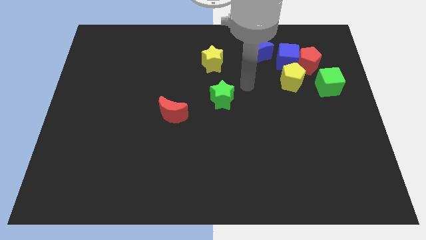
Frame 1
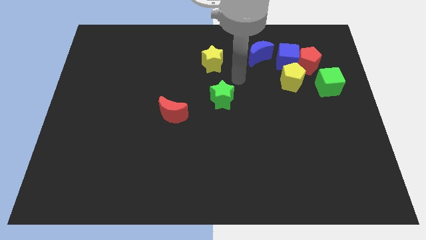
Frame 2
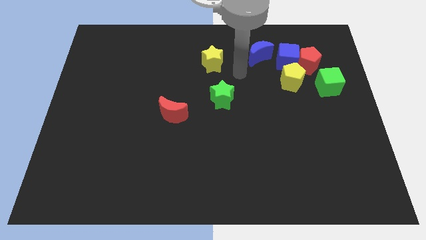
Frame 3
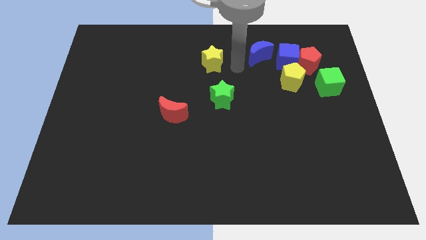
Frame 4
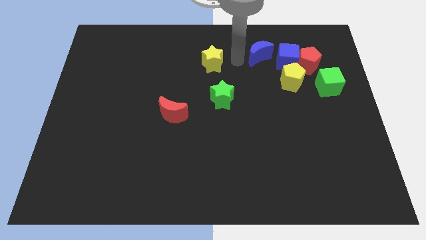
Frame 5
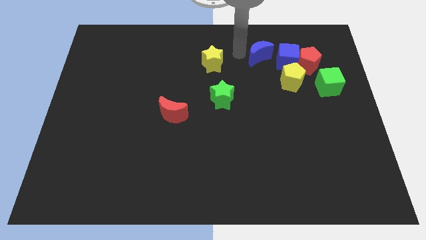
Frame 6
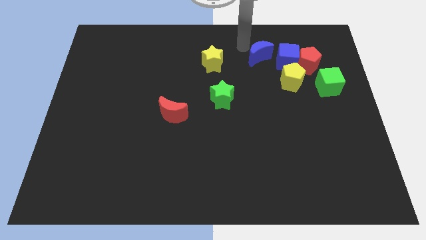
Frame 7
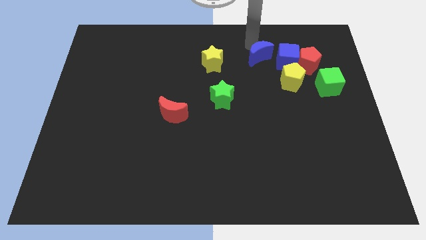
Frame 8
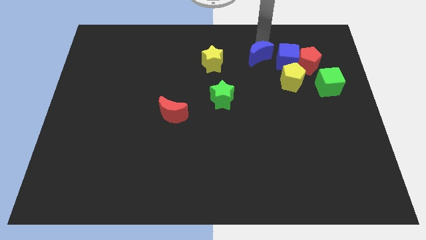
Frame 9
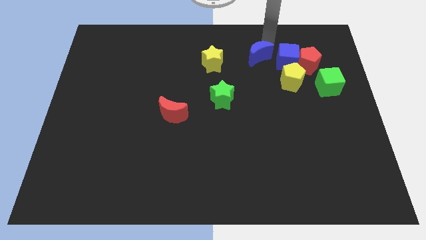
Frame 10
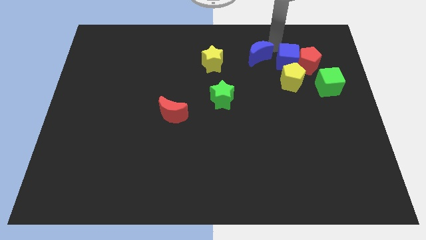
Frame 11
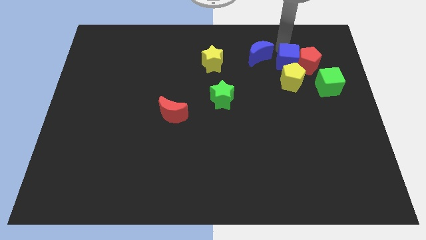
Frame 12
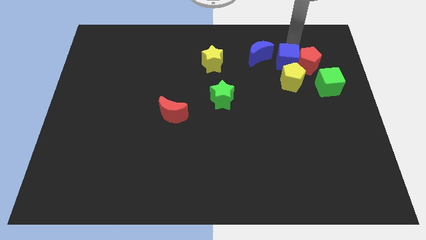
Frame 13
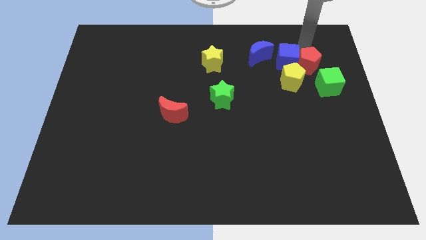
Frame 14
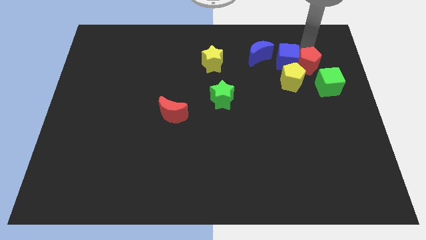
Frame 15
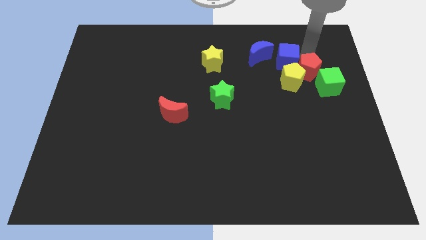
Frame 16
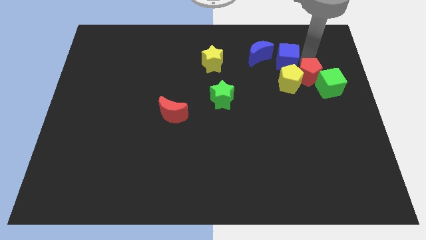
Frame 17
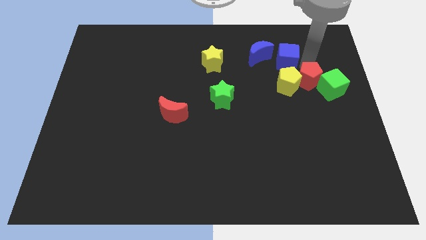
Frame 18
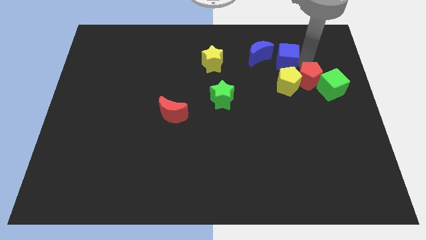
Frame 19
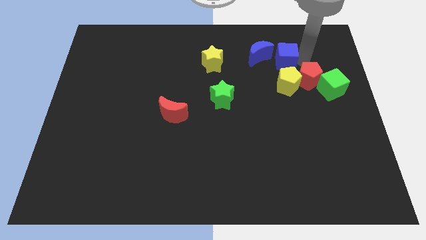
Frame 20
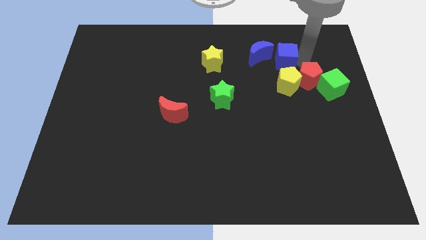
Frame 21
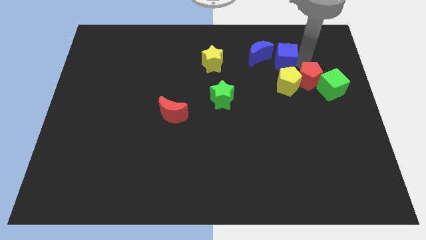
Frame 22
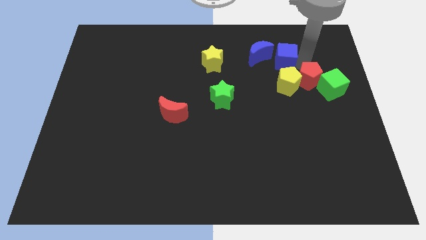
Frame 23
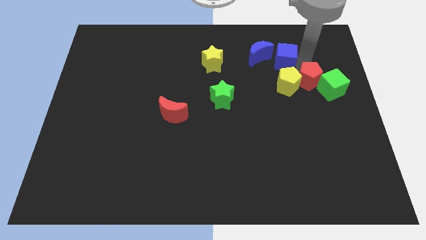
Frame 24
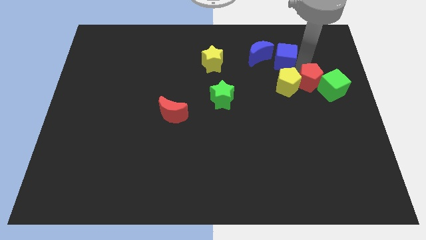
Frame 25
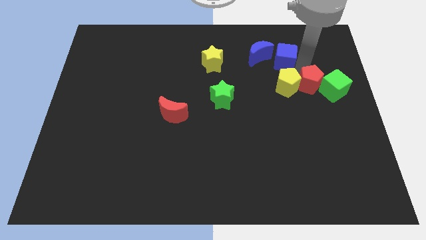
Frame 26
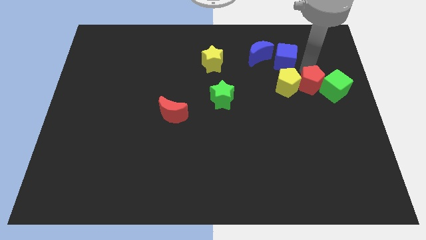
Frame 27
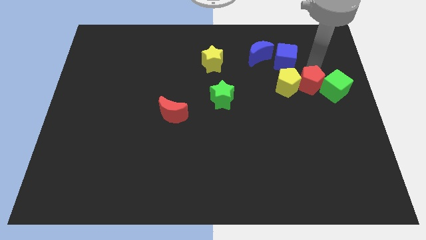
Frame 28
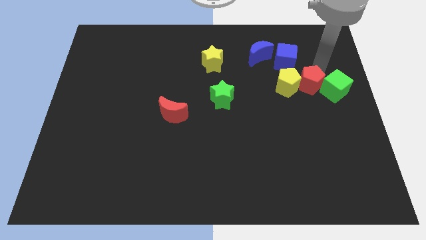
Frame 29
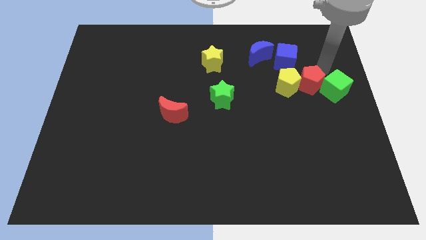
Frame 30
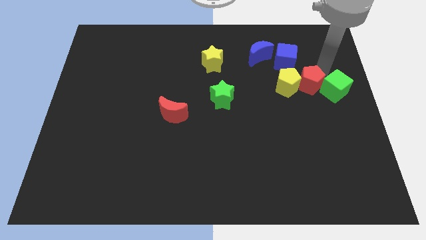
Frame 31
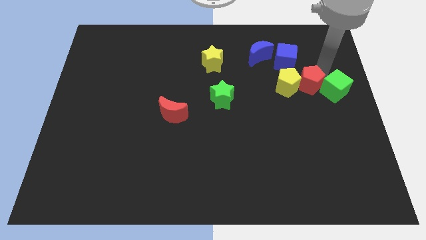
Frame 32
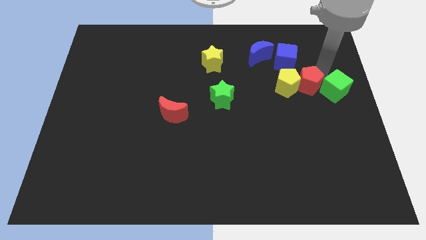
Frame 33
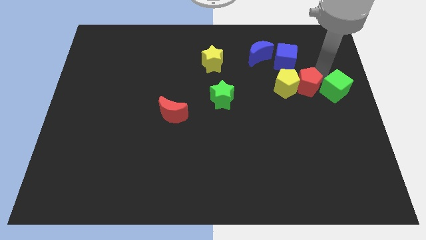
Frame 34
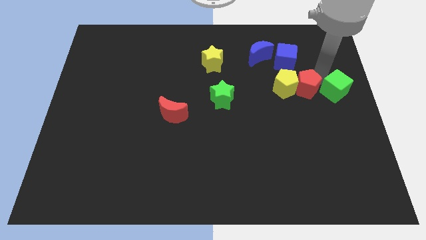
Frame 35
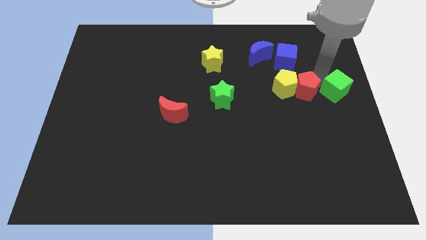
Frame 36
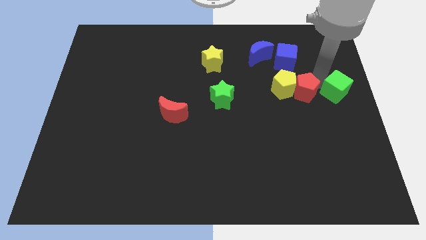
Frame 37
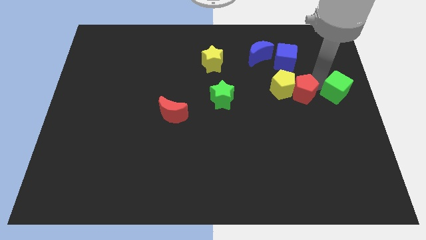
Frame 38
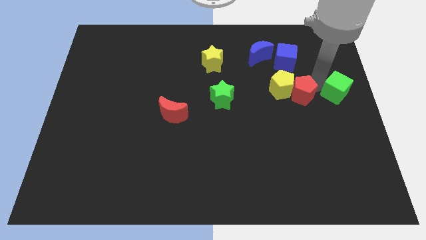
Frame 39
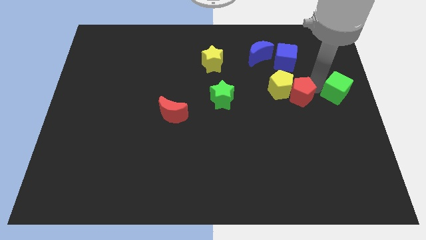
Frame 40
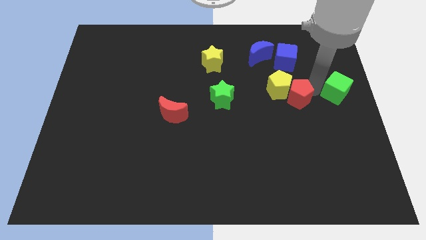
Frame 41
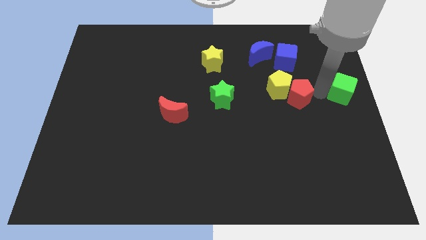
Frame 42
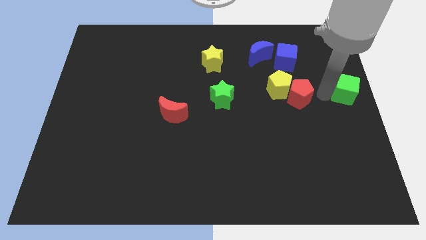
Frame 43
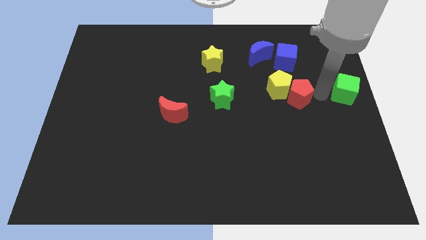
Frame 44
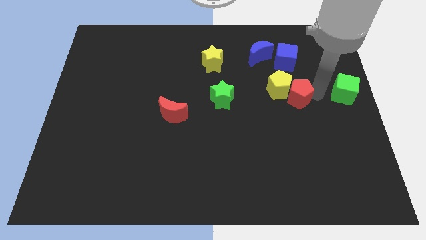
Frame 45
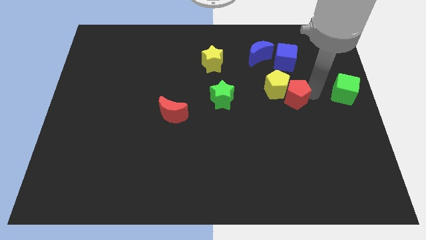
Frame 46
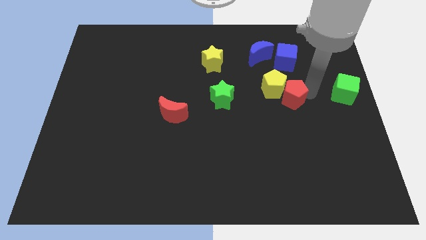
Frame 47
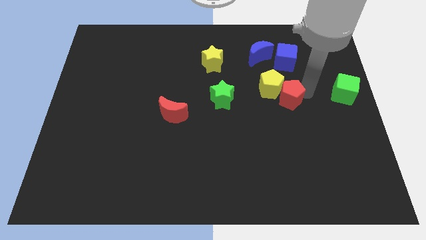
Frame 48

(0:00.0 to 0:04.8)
slide the red pentagon to the right of the green star

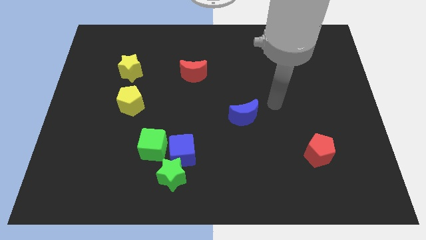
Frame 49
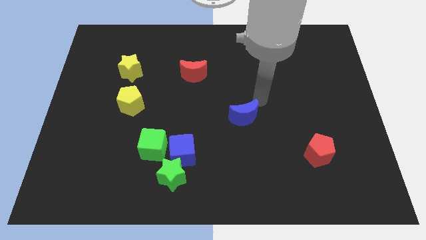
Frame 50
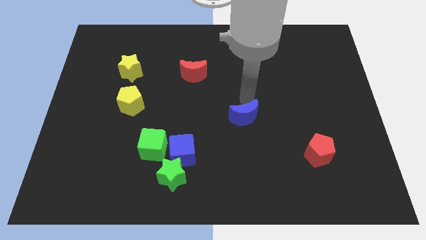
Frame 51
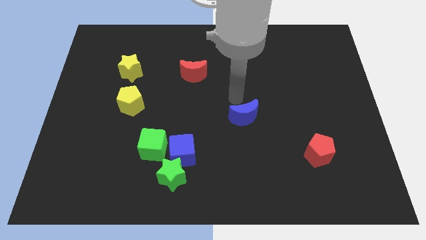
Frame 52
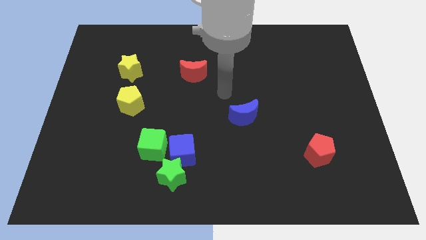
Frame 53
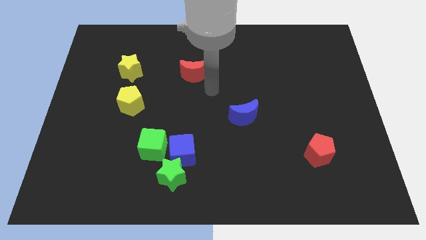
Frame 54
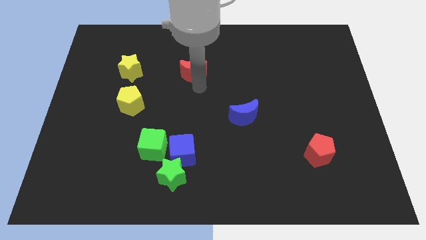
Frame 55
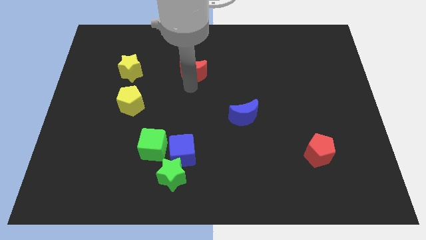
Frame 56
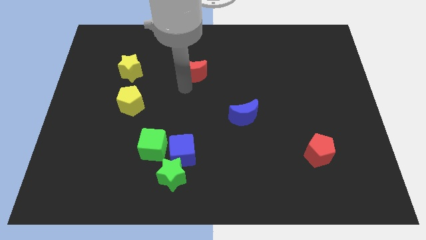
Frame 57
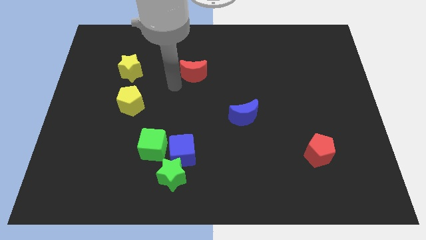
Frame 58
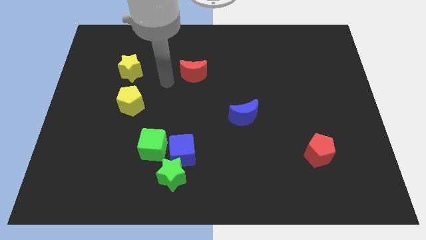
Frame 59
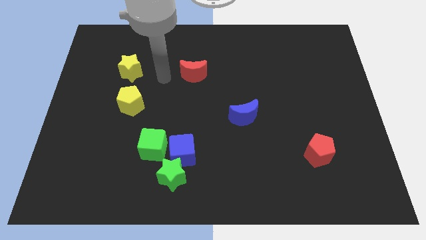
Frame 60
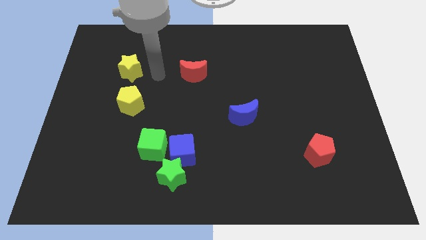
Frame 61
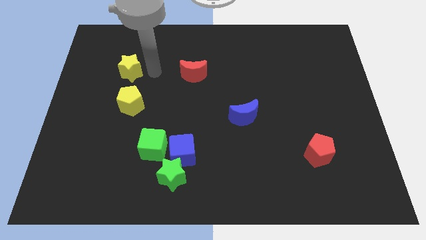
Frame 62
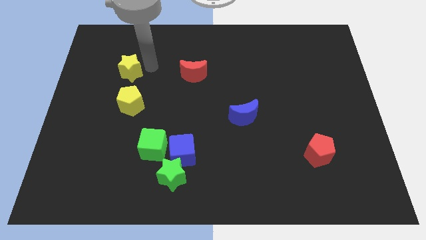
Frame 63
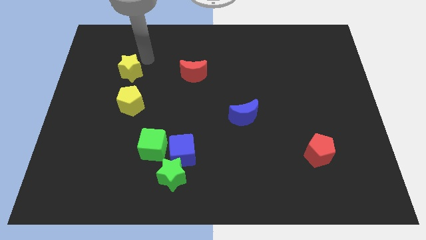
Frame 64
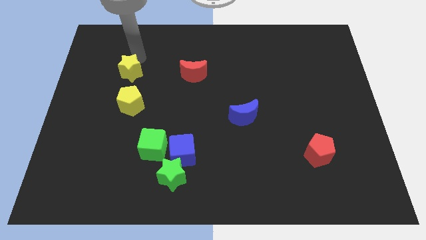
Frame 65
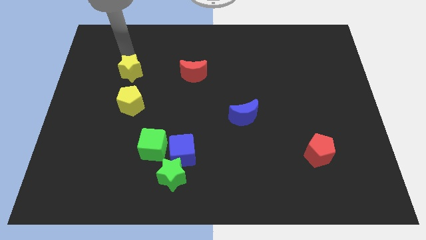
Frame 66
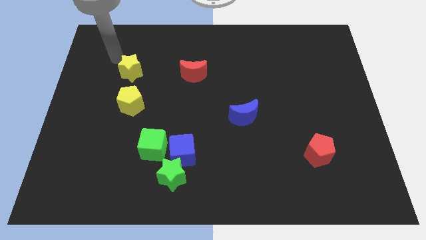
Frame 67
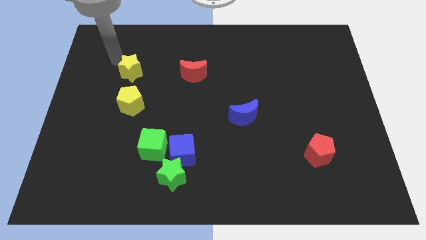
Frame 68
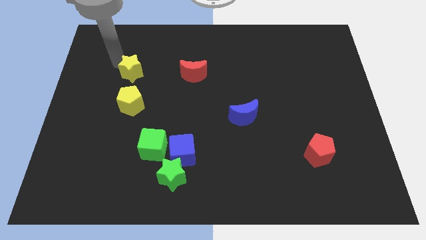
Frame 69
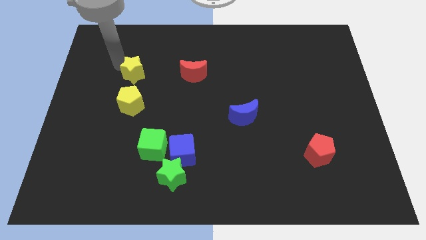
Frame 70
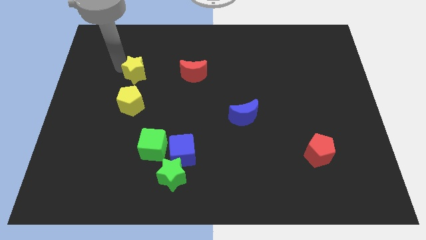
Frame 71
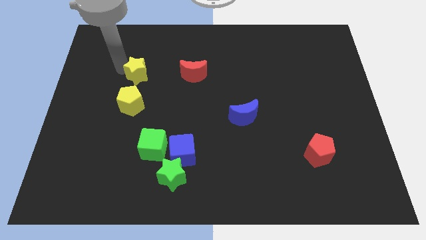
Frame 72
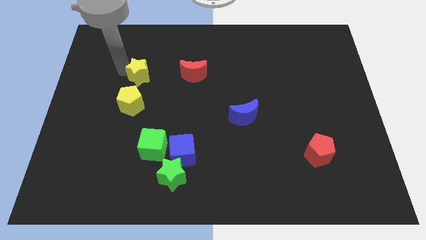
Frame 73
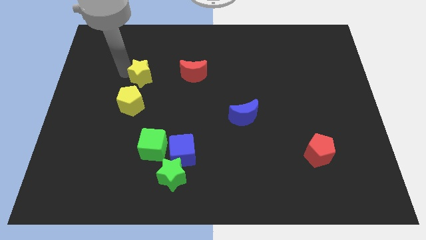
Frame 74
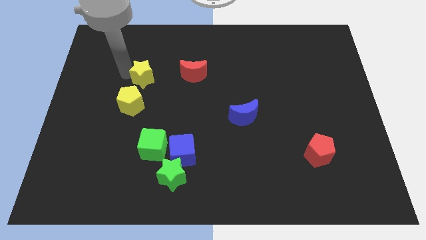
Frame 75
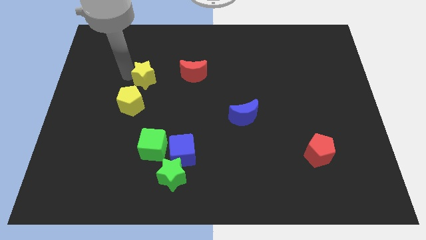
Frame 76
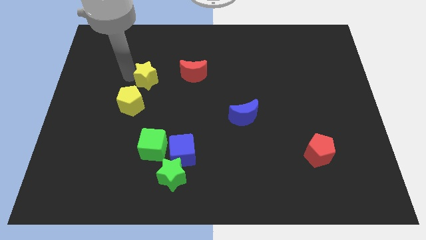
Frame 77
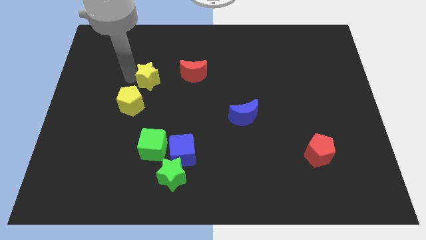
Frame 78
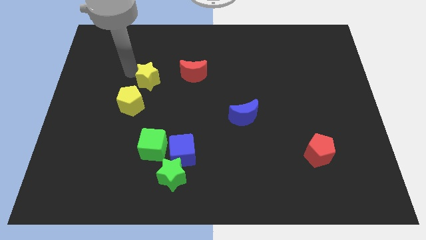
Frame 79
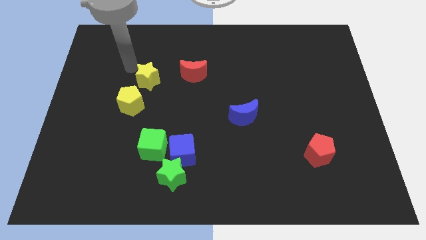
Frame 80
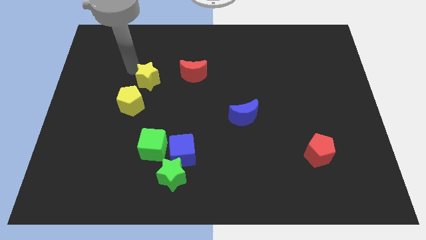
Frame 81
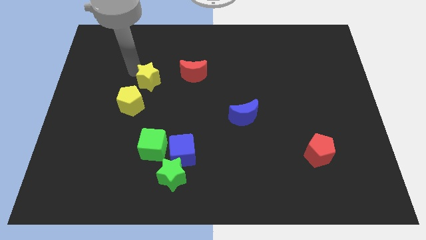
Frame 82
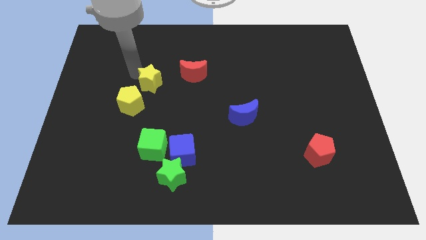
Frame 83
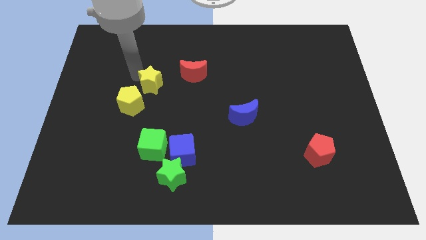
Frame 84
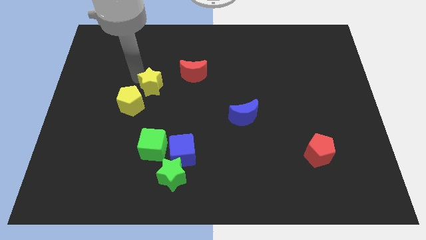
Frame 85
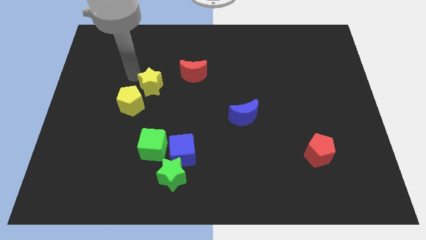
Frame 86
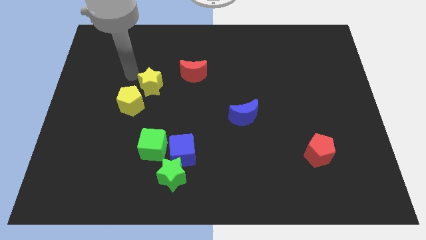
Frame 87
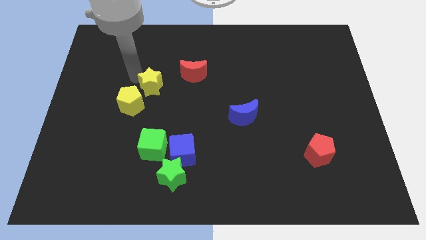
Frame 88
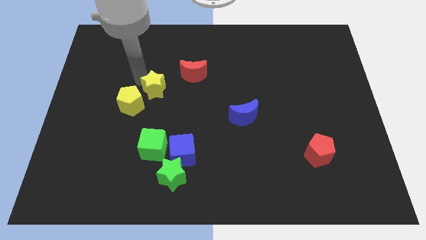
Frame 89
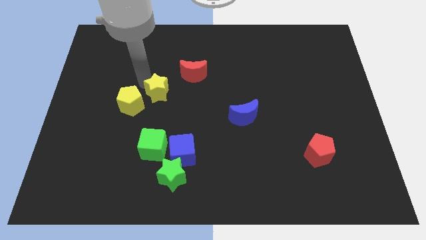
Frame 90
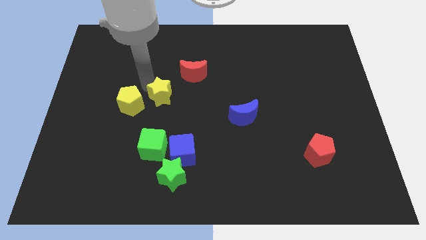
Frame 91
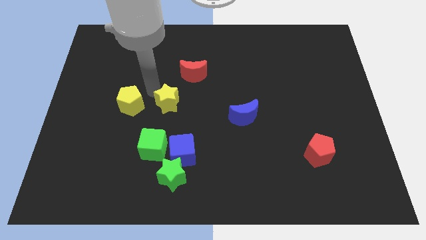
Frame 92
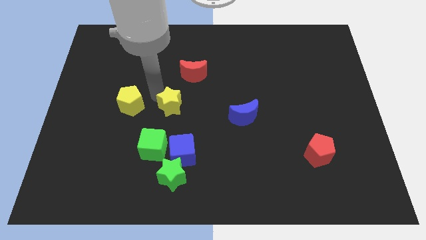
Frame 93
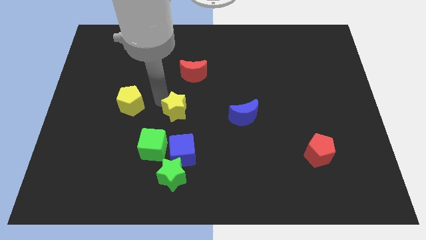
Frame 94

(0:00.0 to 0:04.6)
move the yellow star below the red moon
